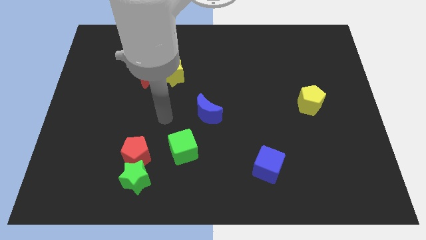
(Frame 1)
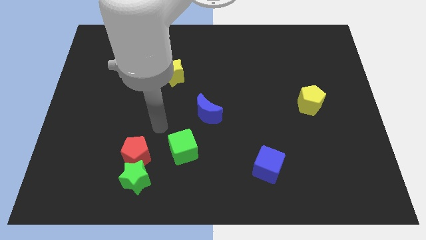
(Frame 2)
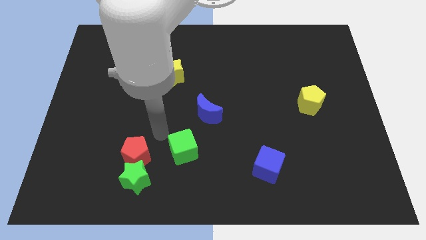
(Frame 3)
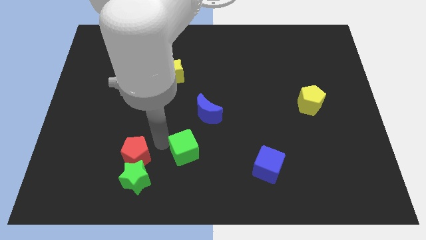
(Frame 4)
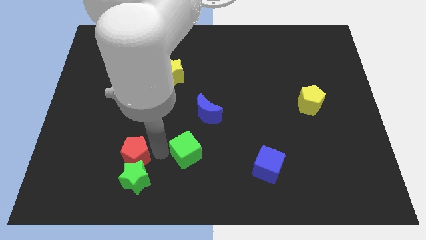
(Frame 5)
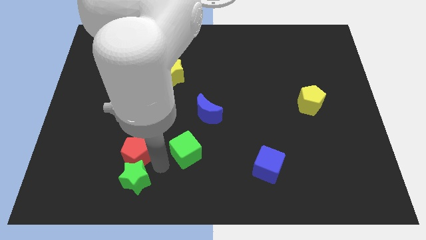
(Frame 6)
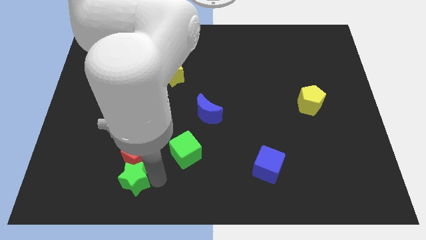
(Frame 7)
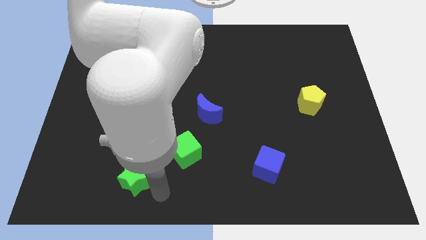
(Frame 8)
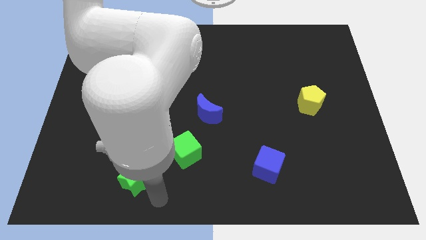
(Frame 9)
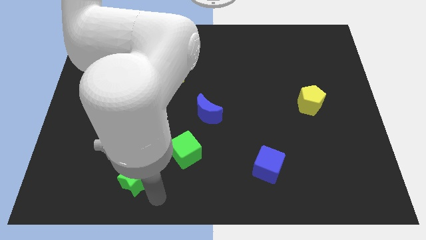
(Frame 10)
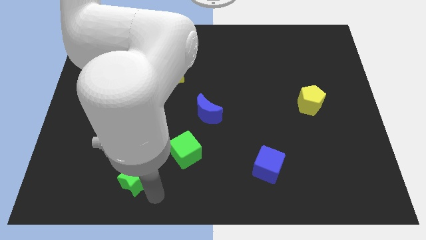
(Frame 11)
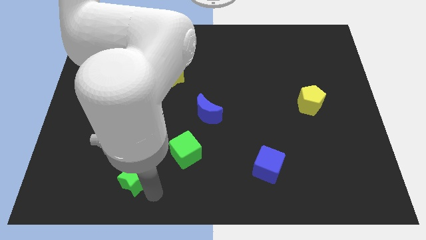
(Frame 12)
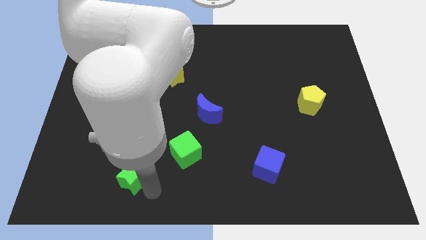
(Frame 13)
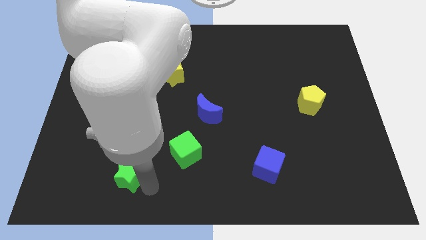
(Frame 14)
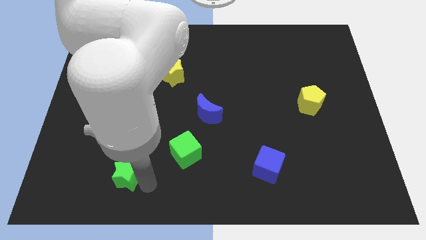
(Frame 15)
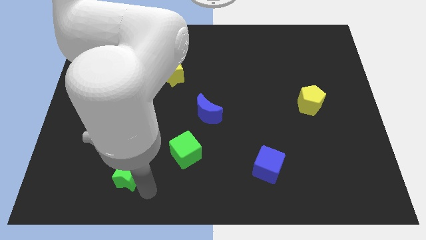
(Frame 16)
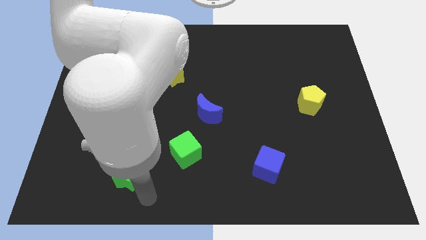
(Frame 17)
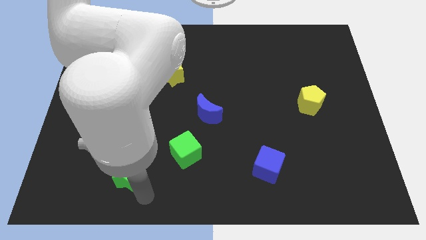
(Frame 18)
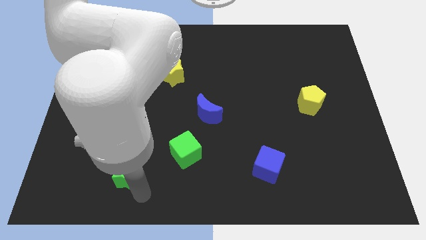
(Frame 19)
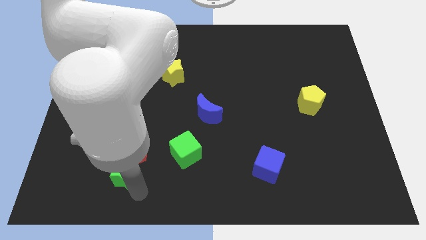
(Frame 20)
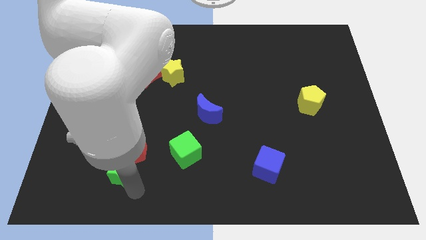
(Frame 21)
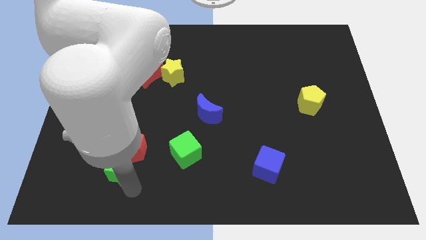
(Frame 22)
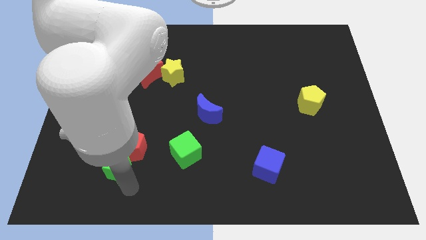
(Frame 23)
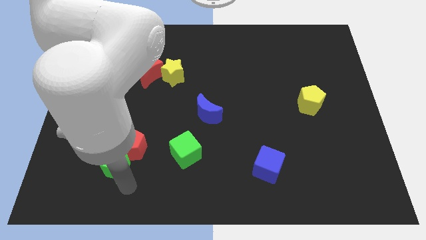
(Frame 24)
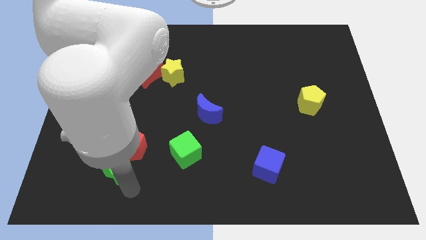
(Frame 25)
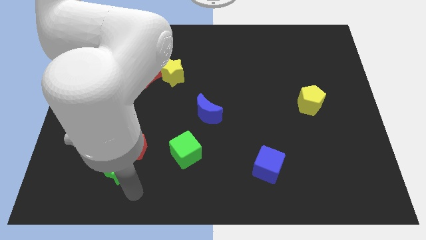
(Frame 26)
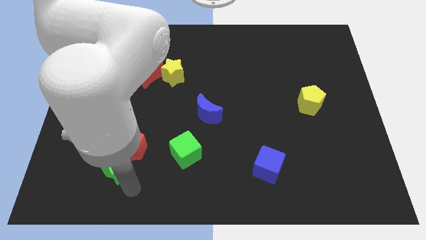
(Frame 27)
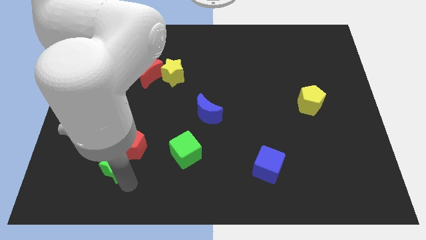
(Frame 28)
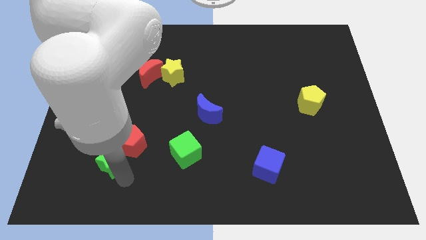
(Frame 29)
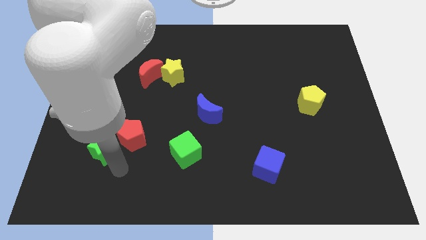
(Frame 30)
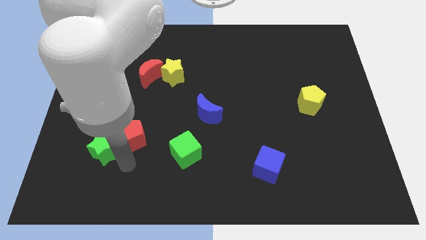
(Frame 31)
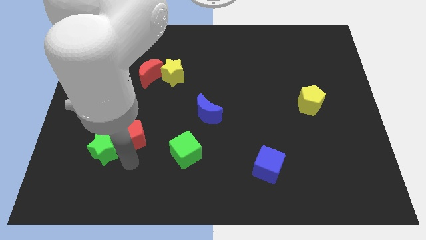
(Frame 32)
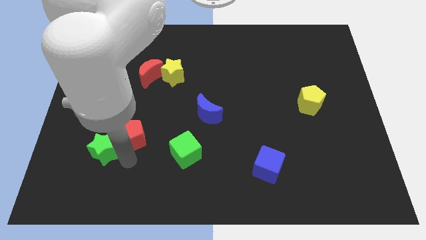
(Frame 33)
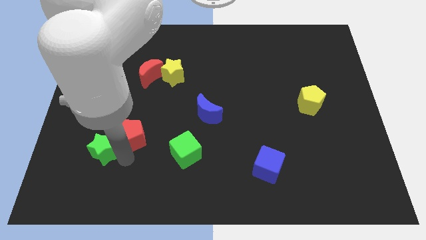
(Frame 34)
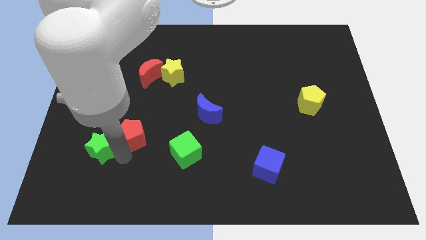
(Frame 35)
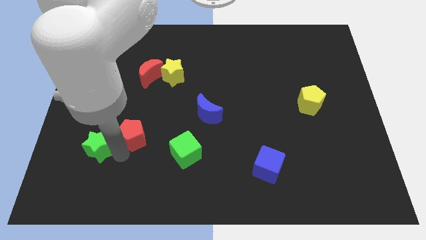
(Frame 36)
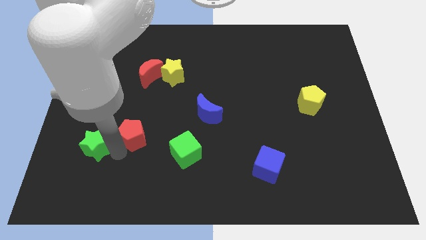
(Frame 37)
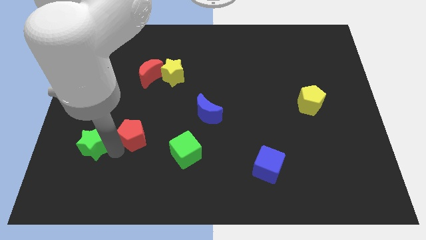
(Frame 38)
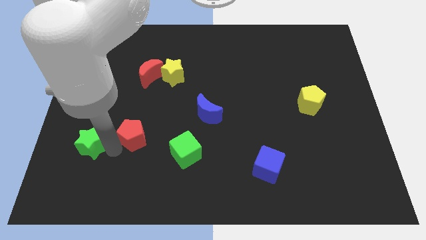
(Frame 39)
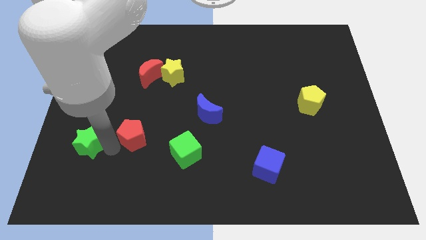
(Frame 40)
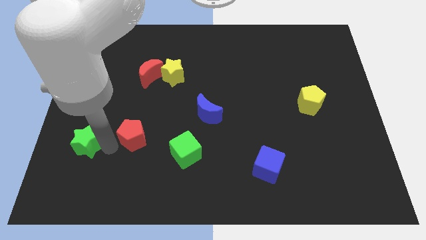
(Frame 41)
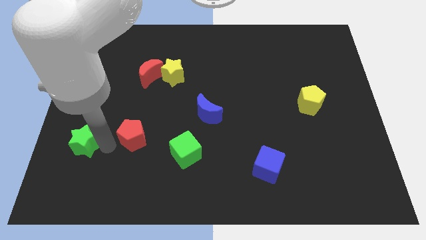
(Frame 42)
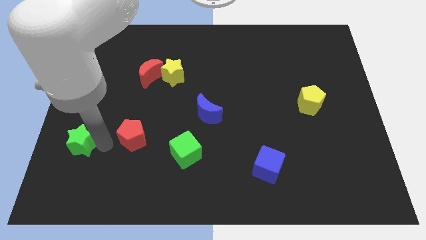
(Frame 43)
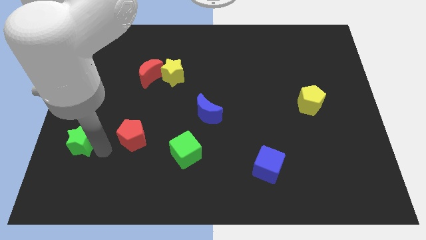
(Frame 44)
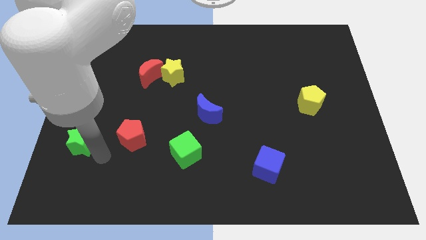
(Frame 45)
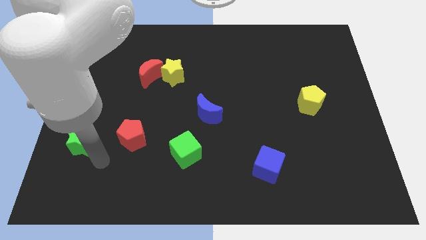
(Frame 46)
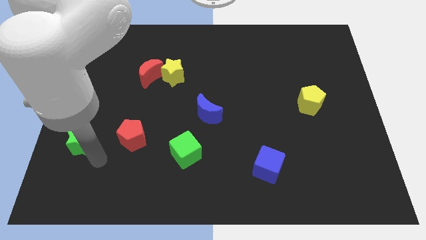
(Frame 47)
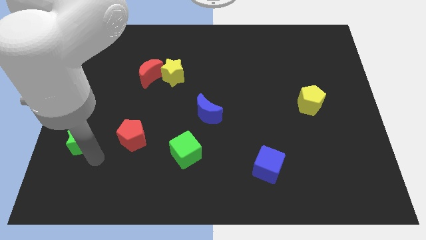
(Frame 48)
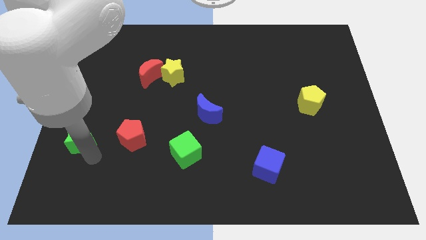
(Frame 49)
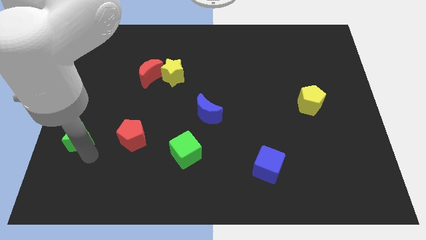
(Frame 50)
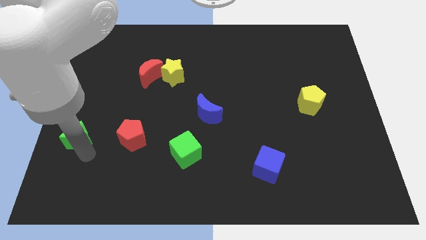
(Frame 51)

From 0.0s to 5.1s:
push the green star to the left side

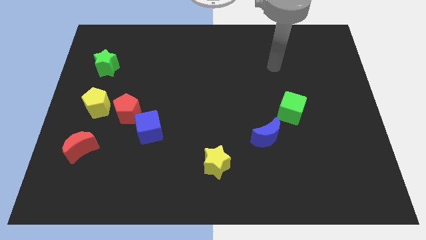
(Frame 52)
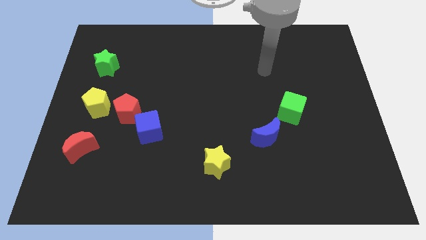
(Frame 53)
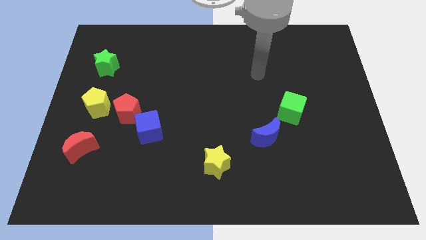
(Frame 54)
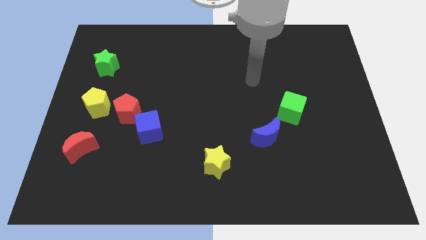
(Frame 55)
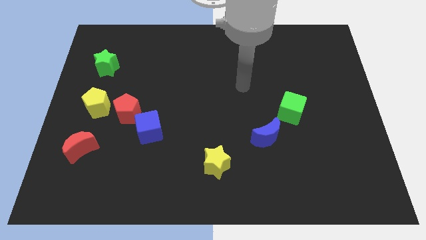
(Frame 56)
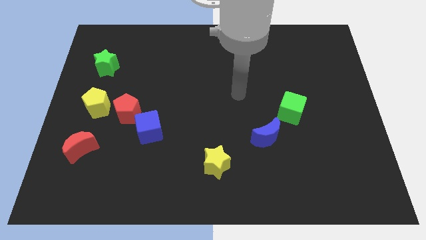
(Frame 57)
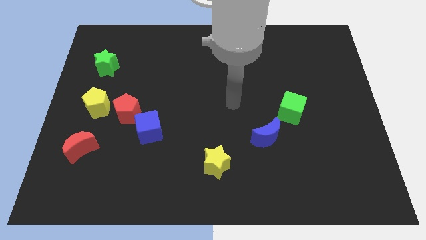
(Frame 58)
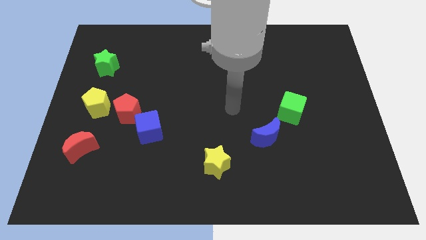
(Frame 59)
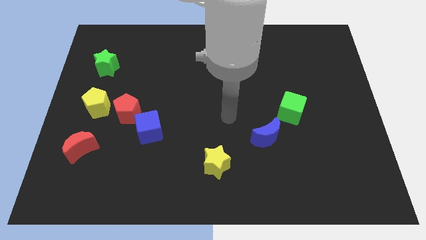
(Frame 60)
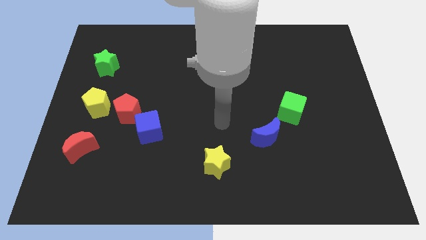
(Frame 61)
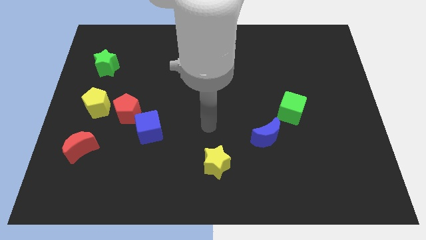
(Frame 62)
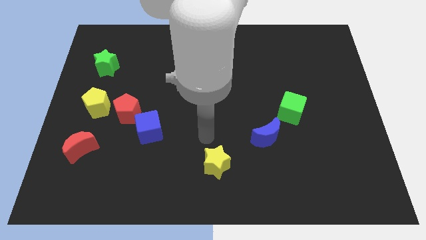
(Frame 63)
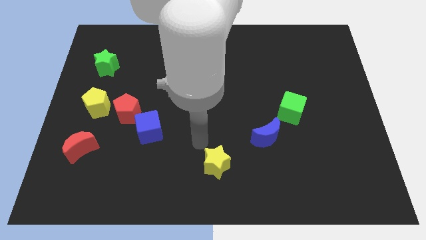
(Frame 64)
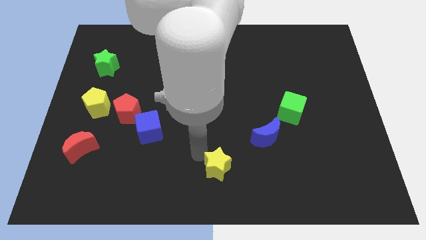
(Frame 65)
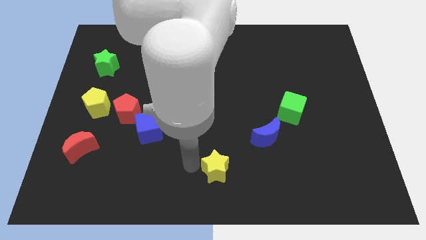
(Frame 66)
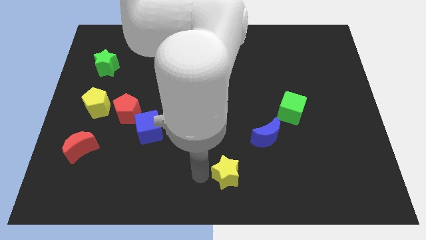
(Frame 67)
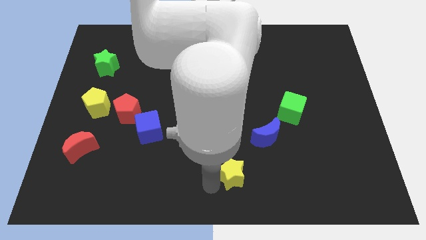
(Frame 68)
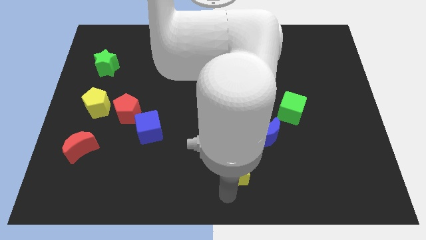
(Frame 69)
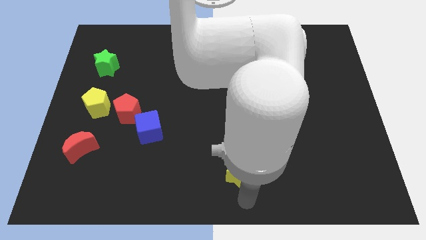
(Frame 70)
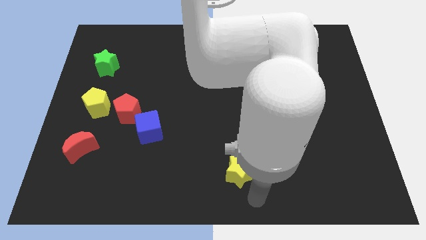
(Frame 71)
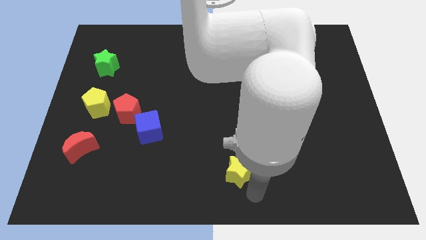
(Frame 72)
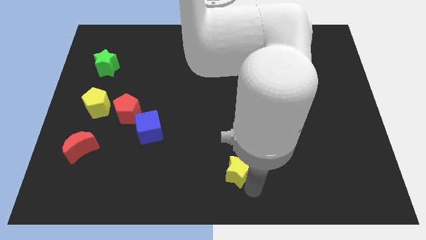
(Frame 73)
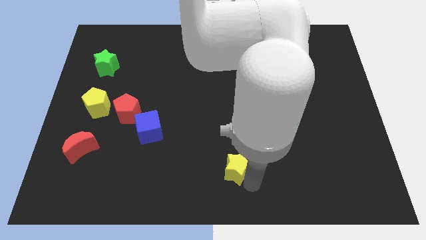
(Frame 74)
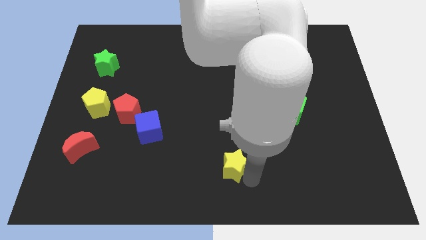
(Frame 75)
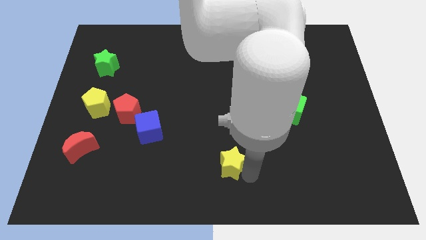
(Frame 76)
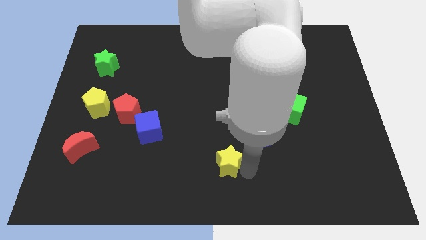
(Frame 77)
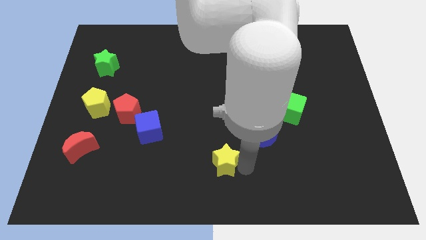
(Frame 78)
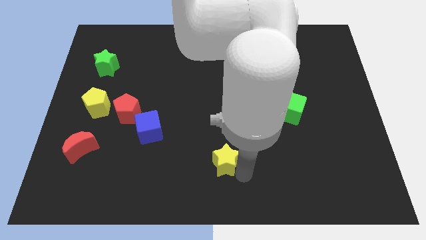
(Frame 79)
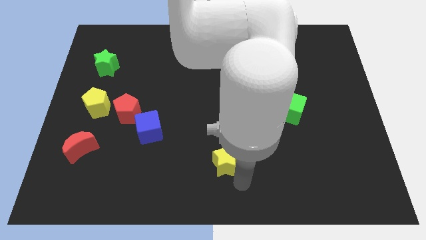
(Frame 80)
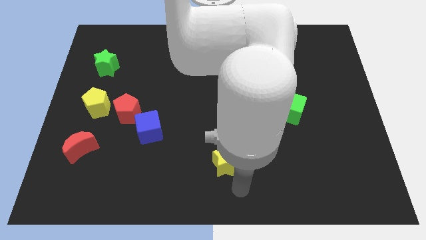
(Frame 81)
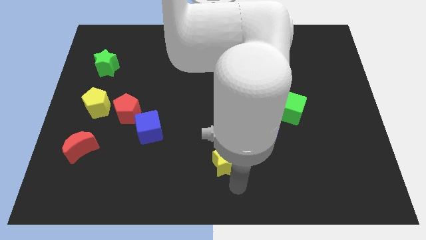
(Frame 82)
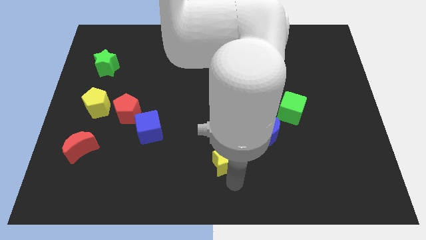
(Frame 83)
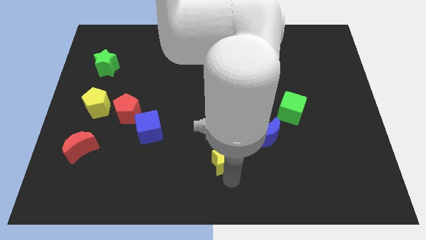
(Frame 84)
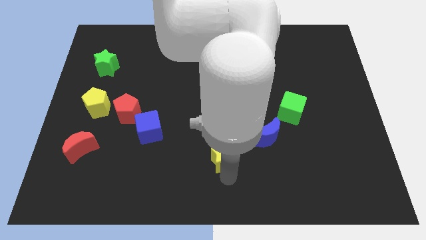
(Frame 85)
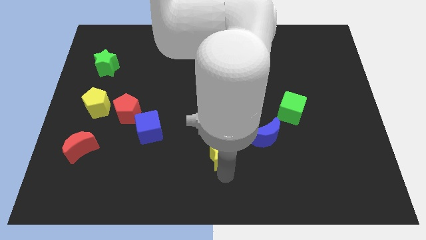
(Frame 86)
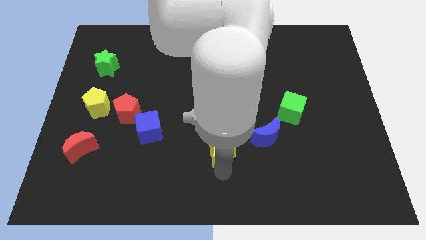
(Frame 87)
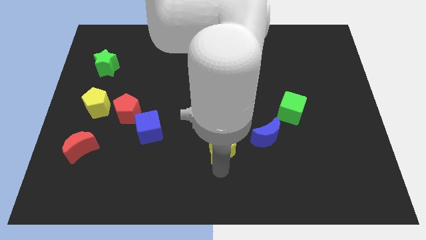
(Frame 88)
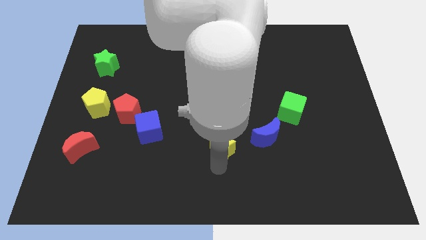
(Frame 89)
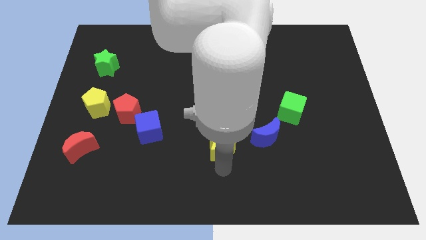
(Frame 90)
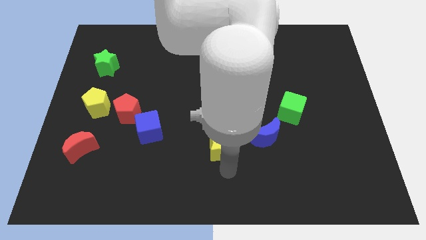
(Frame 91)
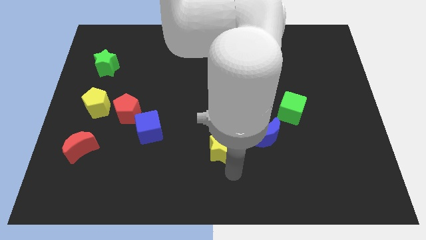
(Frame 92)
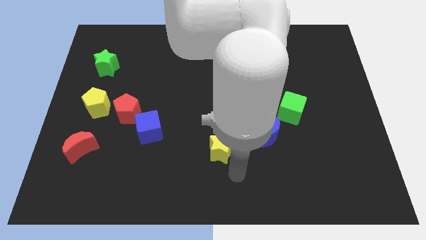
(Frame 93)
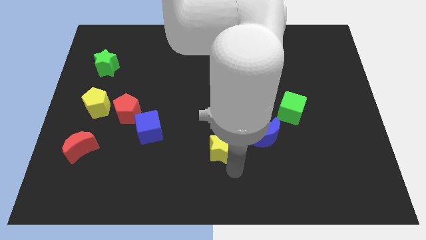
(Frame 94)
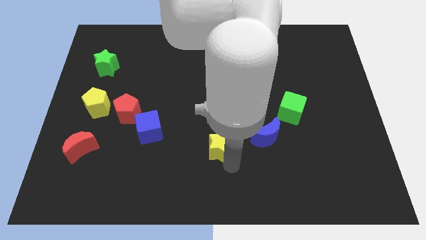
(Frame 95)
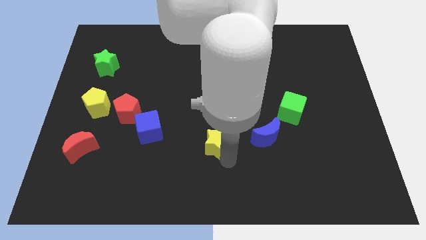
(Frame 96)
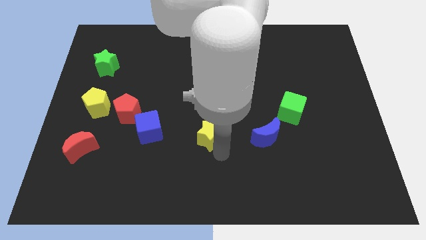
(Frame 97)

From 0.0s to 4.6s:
slide the yellow star to the center
